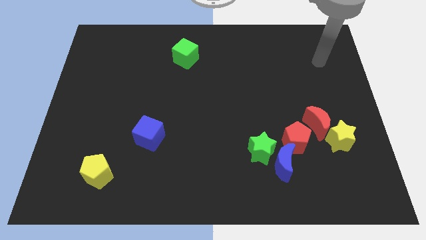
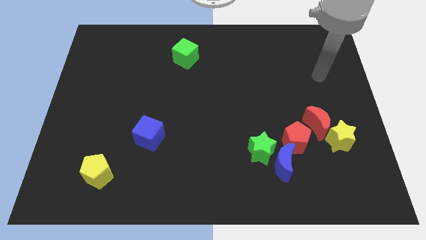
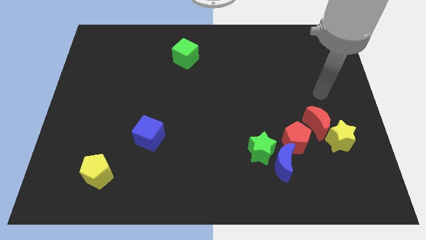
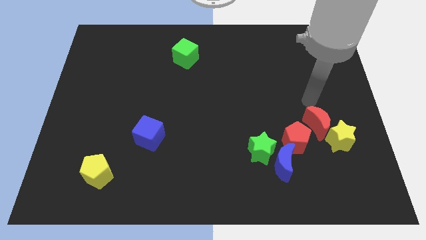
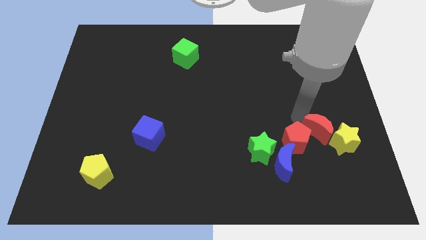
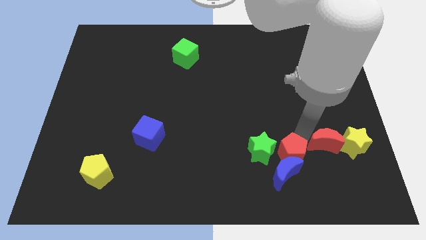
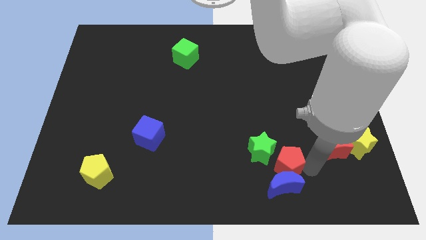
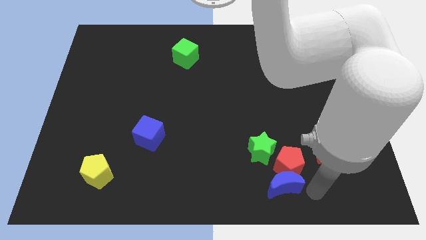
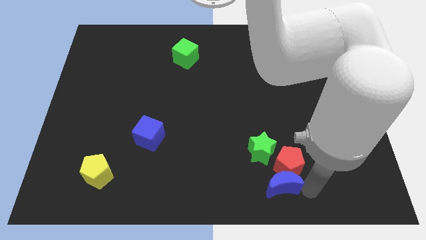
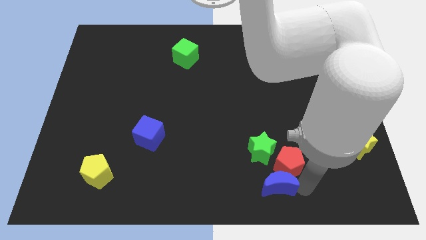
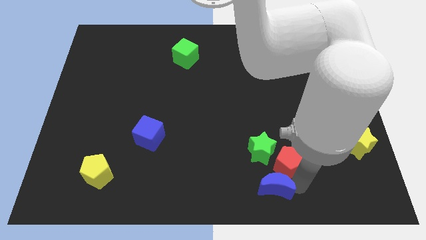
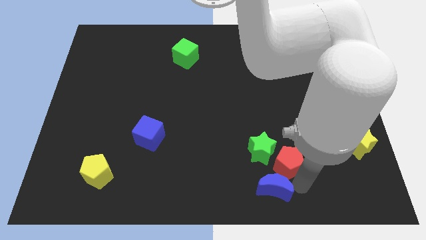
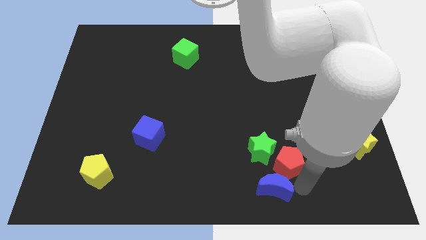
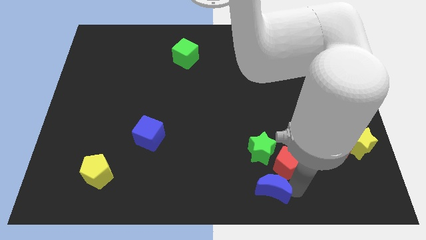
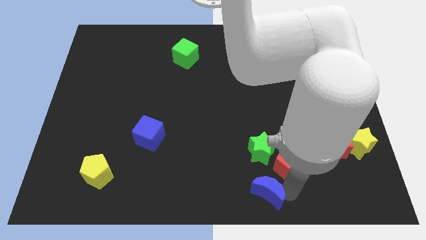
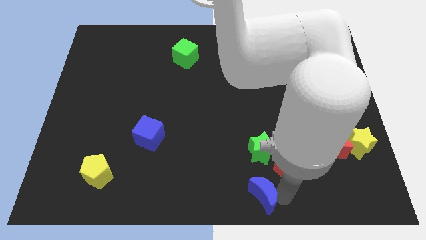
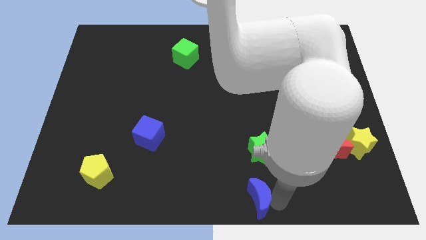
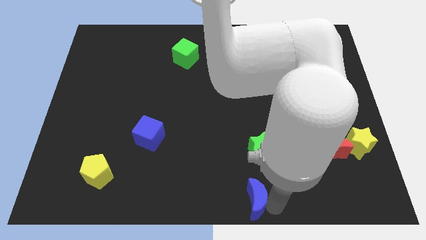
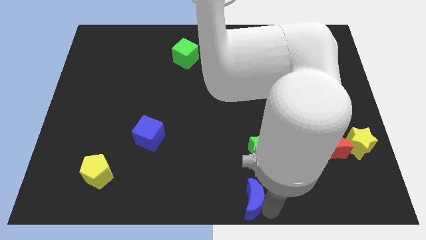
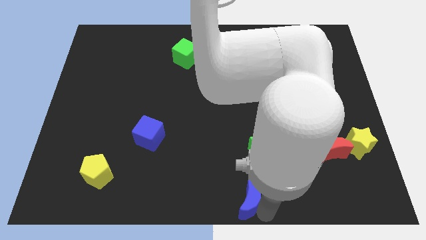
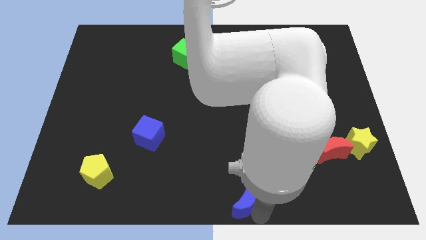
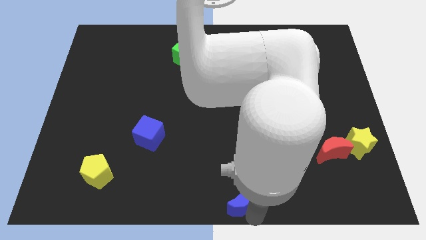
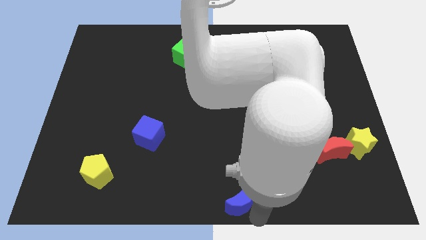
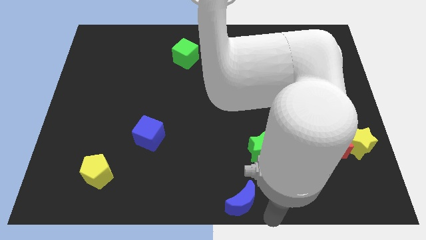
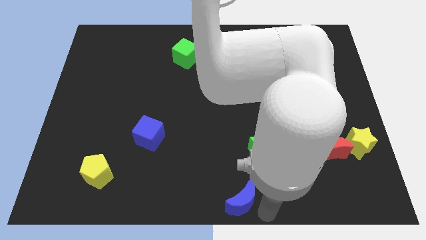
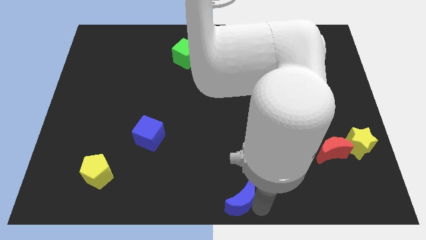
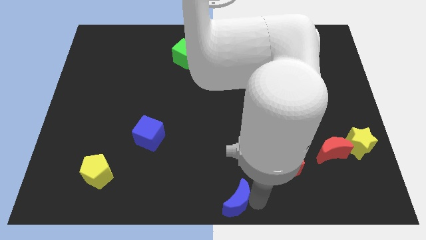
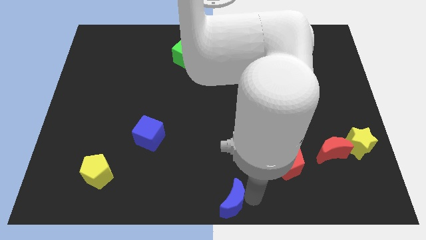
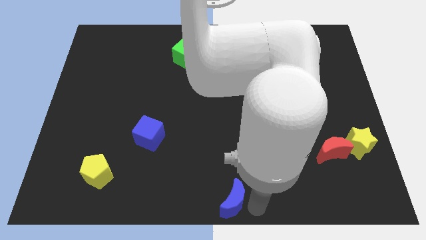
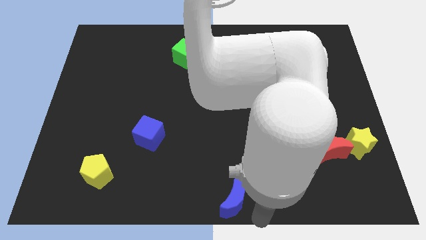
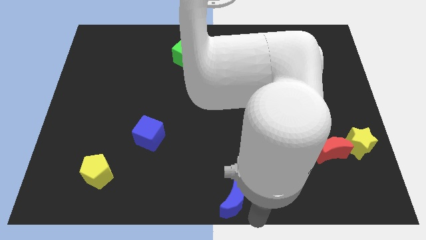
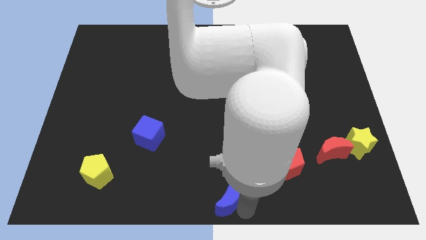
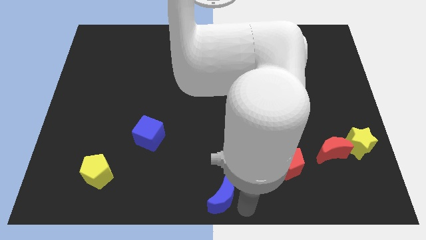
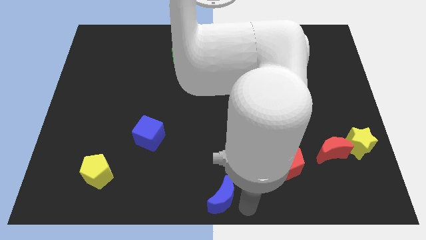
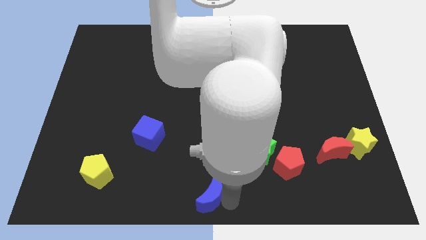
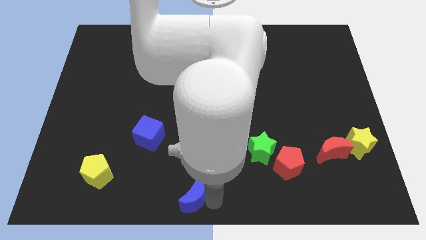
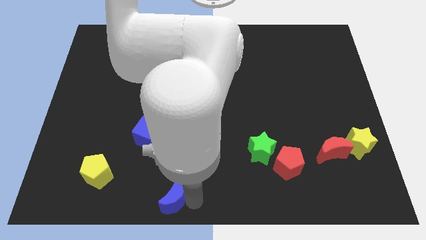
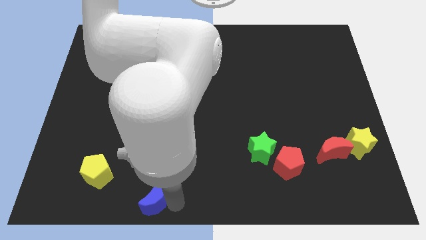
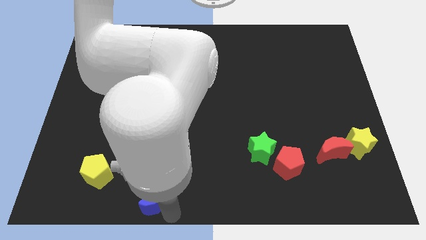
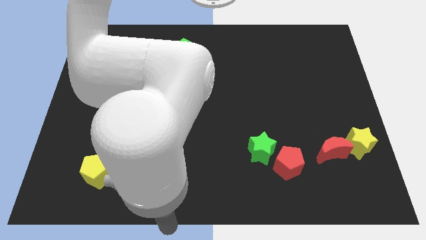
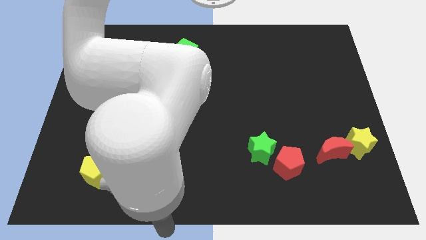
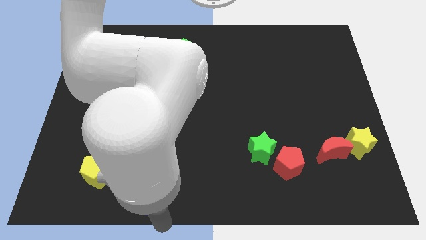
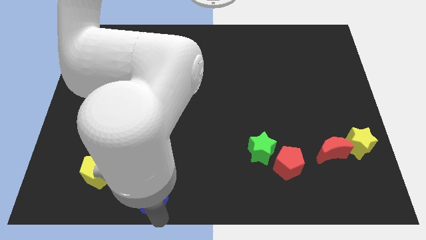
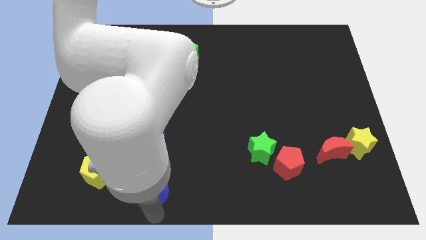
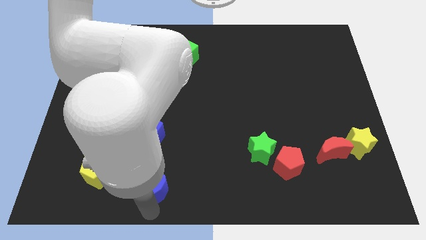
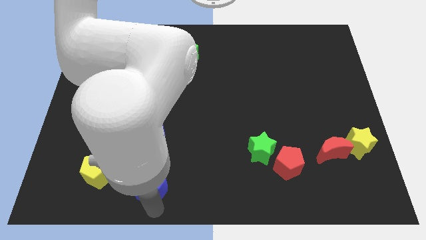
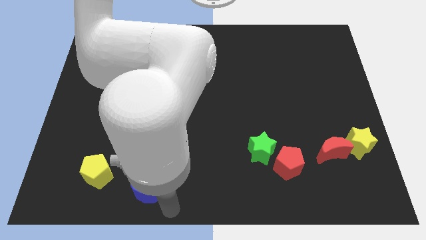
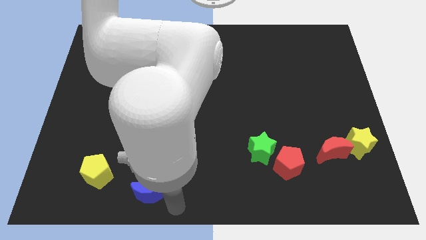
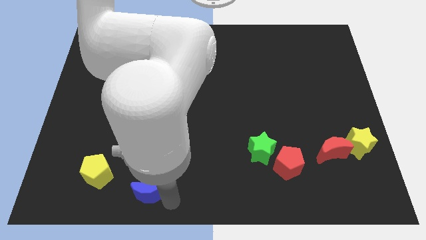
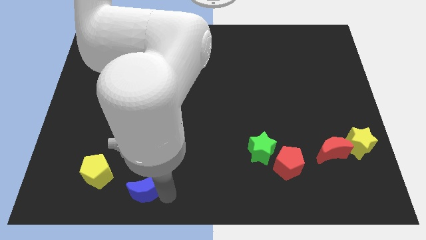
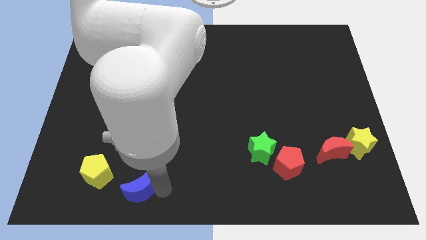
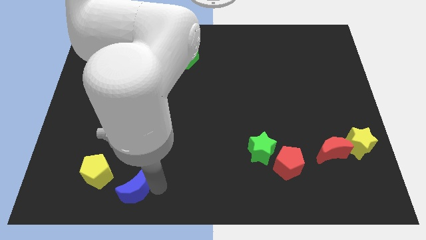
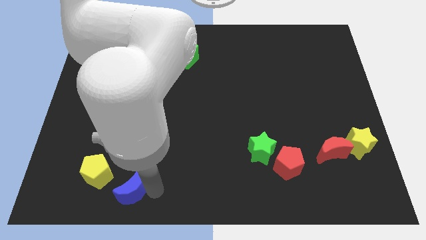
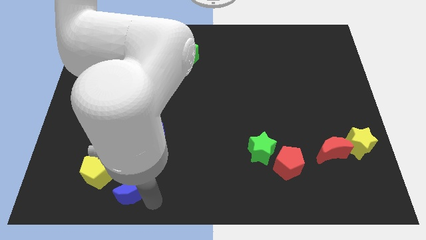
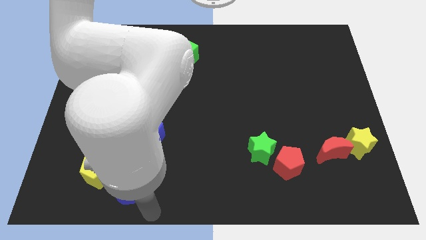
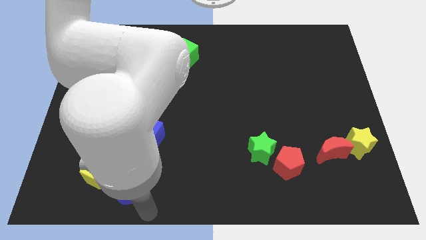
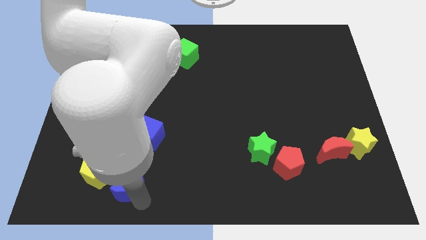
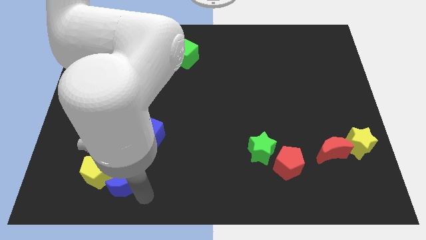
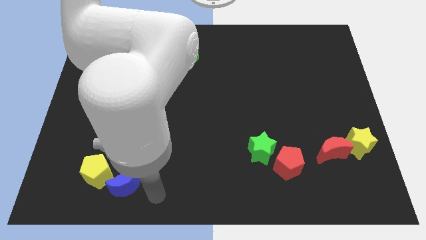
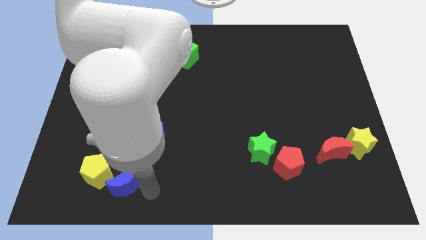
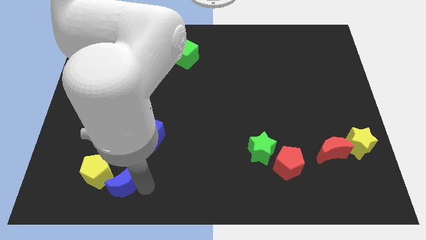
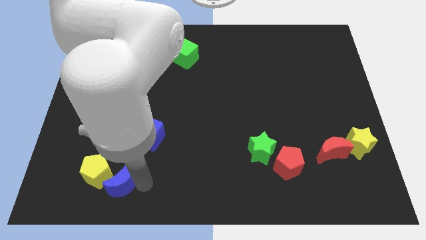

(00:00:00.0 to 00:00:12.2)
slide the blue moon to the yellow pentagon

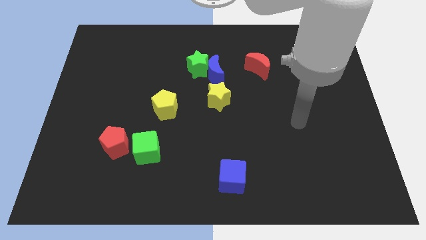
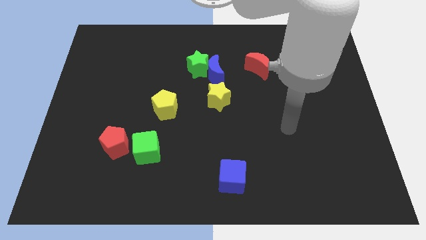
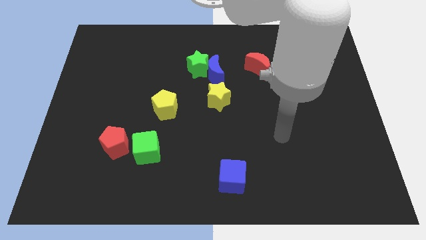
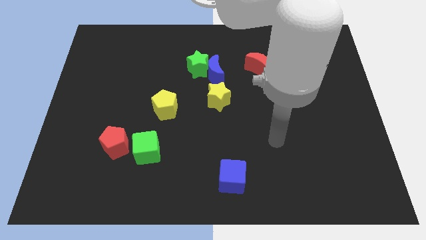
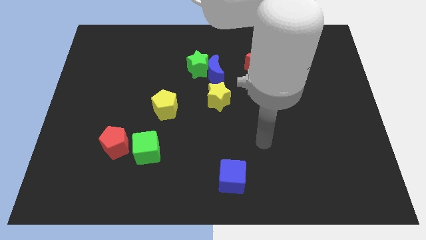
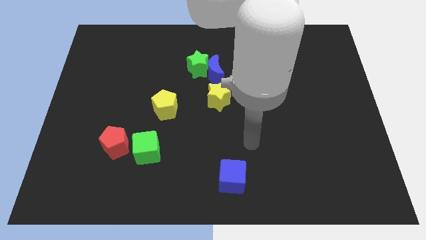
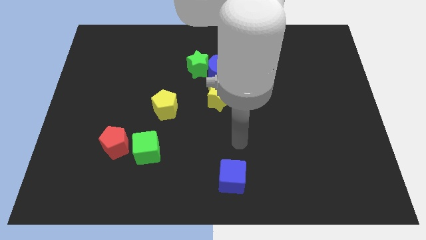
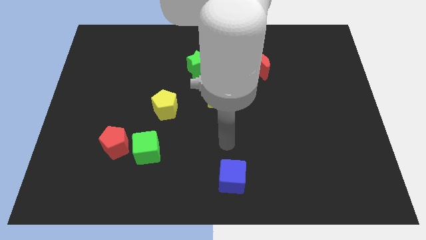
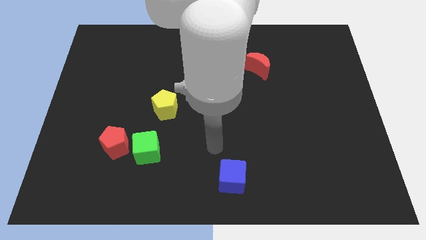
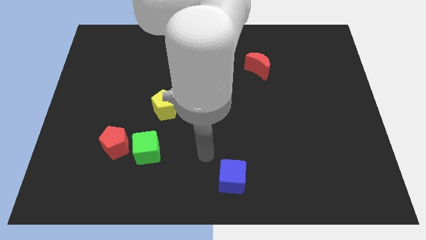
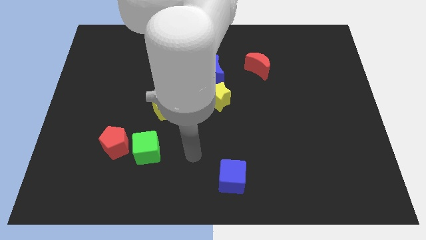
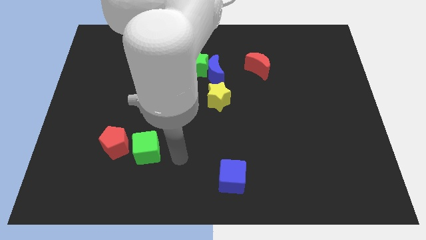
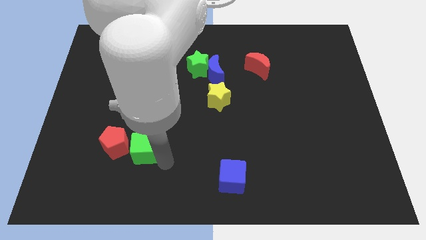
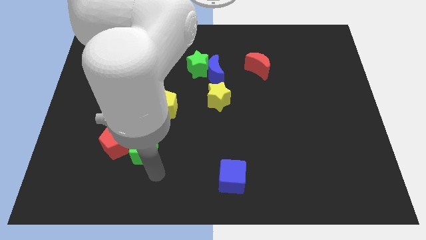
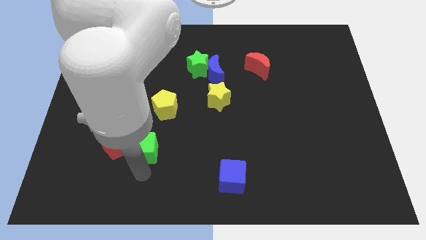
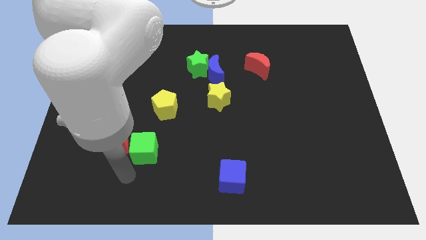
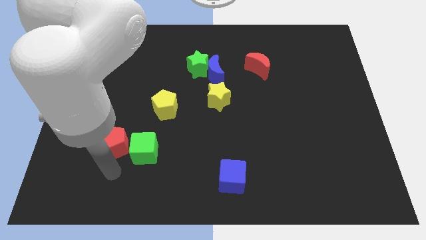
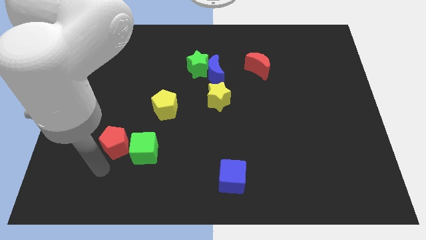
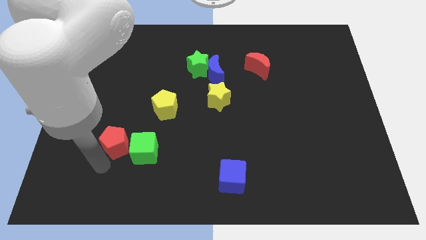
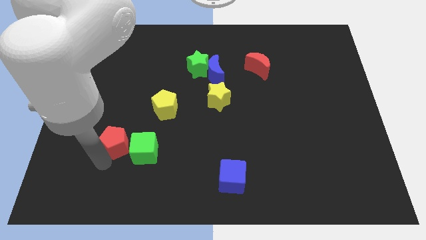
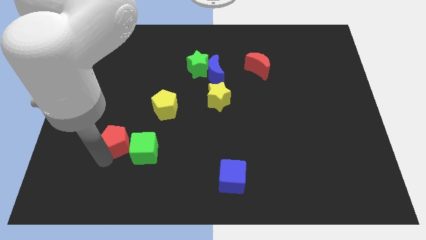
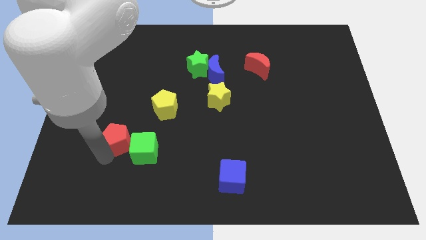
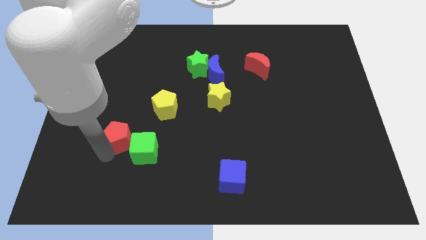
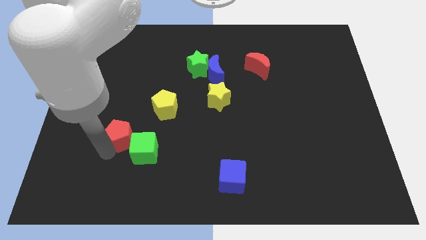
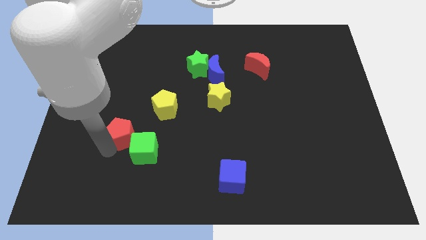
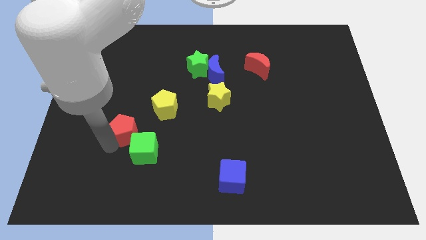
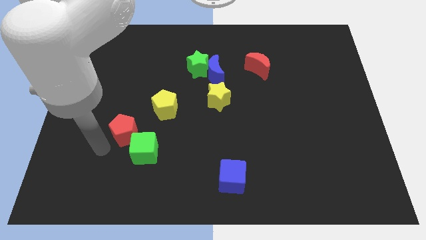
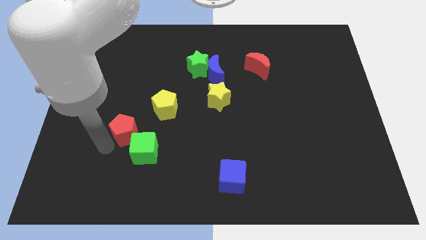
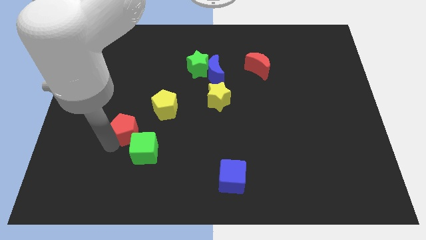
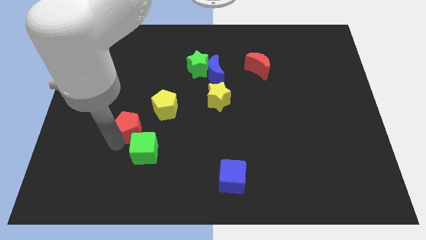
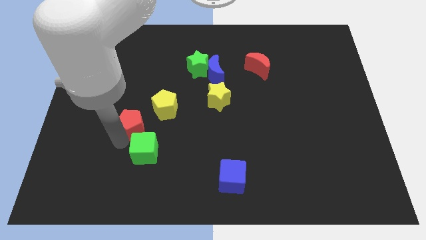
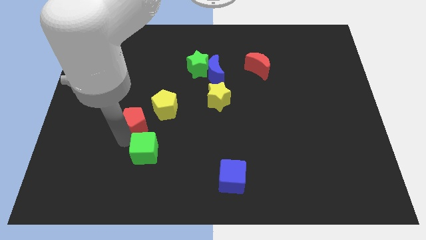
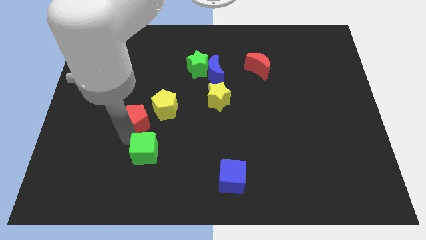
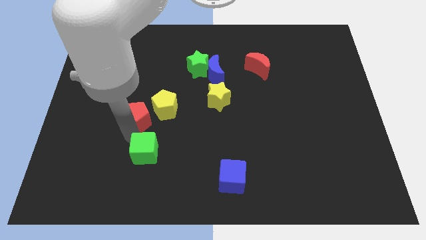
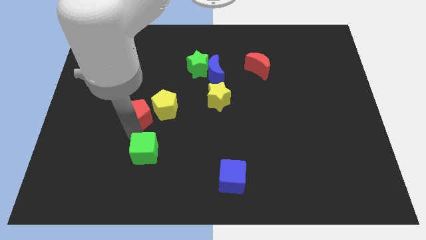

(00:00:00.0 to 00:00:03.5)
slide the red pentagon next to the yellow pentagon
